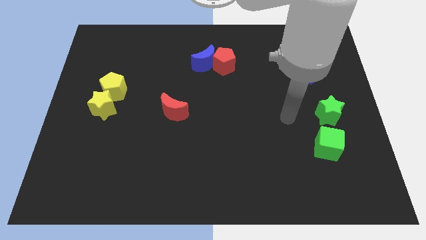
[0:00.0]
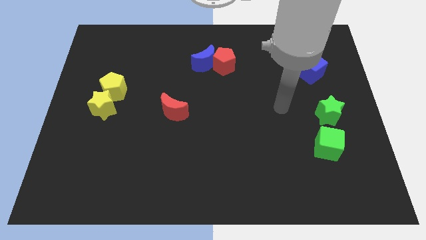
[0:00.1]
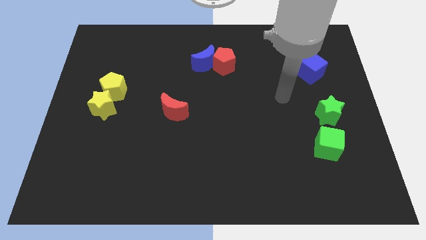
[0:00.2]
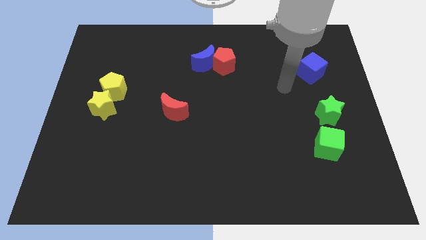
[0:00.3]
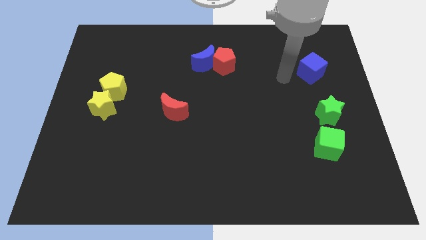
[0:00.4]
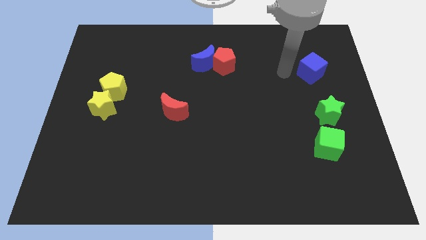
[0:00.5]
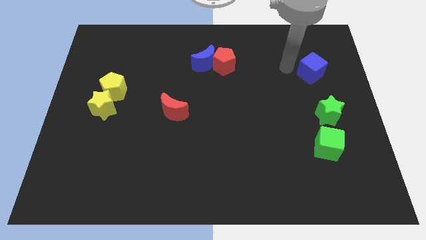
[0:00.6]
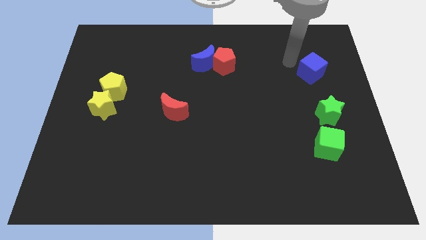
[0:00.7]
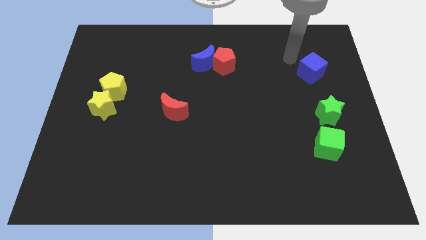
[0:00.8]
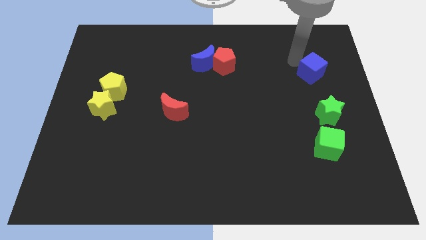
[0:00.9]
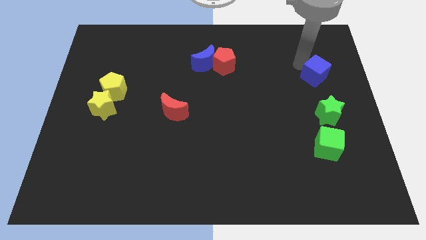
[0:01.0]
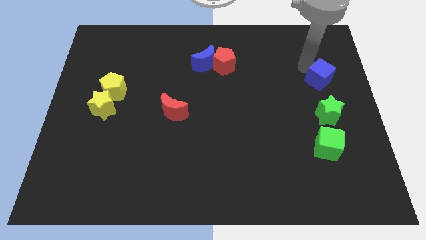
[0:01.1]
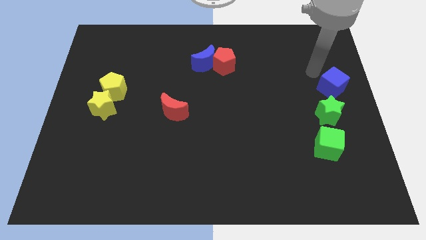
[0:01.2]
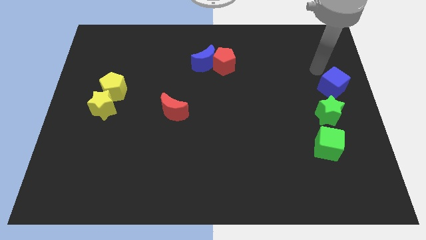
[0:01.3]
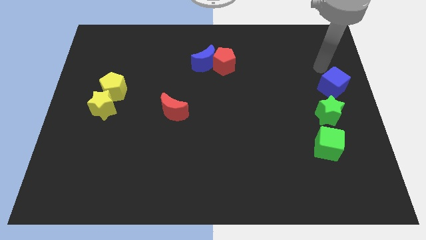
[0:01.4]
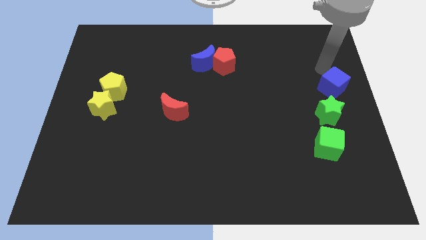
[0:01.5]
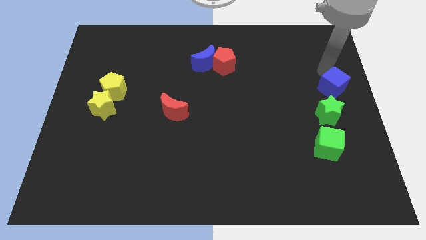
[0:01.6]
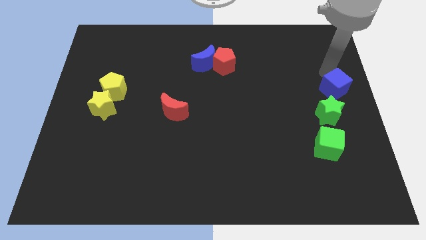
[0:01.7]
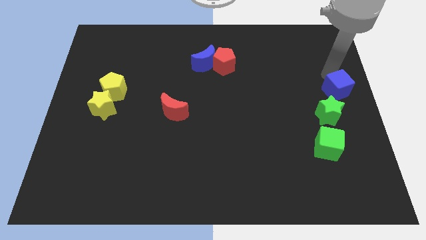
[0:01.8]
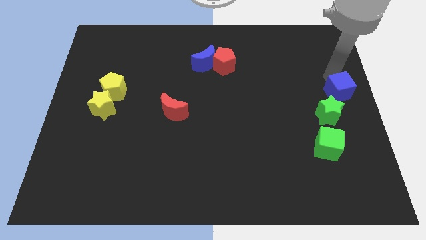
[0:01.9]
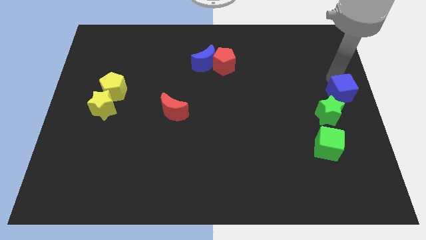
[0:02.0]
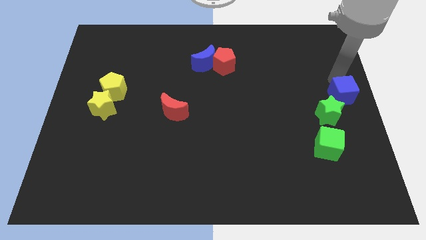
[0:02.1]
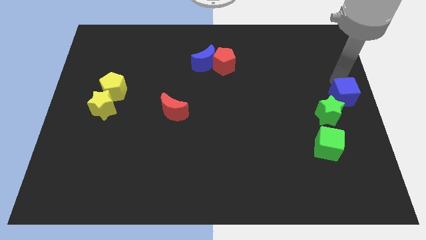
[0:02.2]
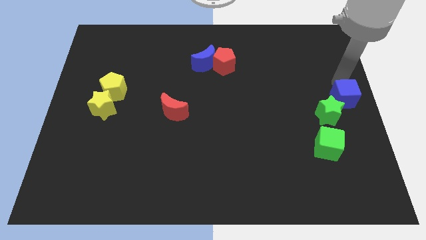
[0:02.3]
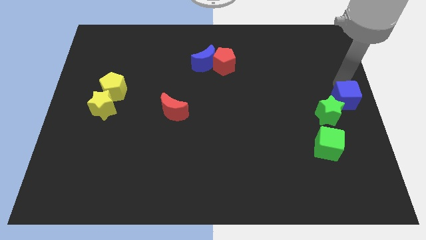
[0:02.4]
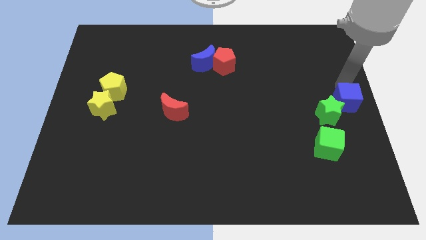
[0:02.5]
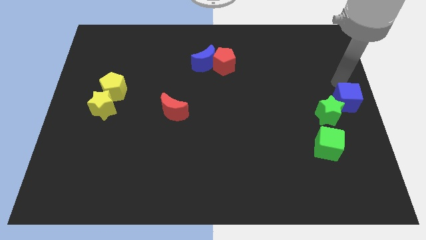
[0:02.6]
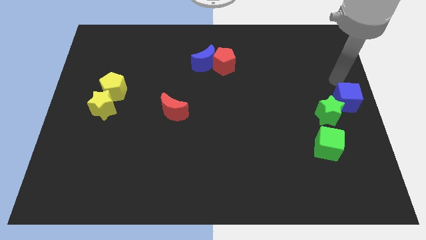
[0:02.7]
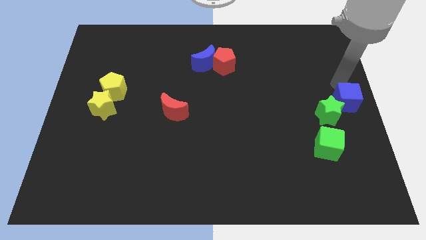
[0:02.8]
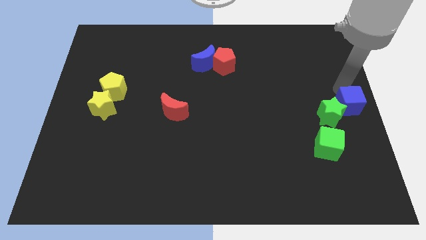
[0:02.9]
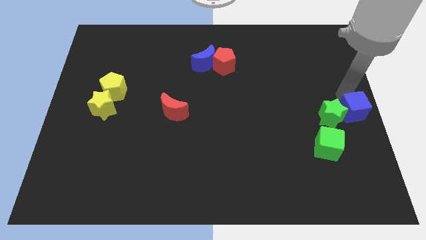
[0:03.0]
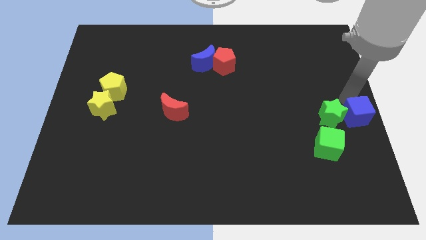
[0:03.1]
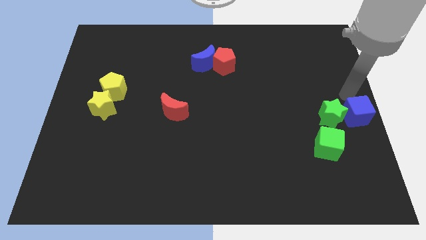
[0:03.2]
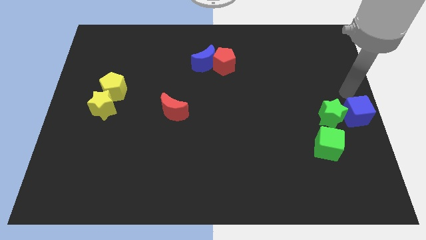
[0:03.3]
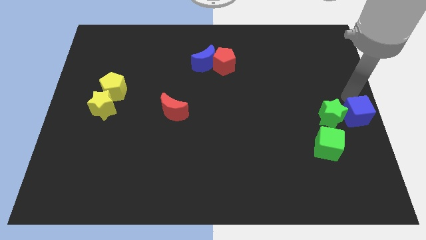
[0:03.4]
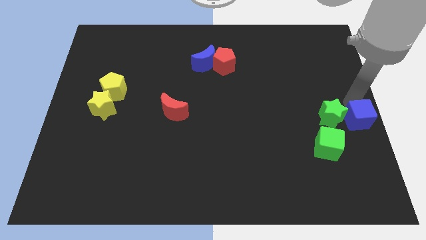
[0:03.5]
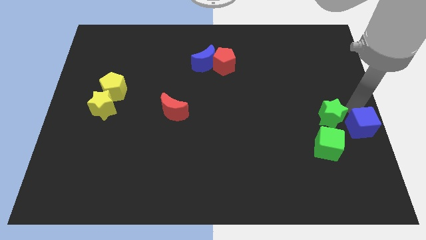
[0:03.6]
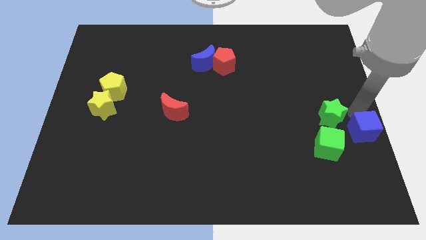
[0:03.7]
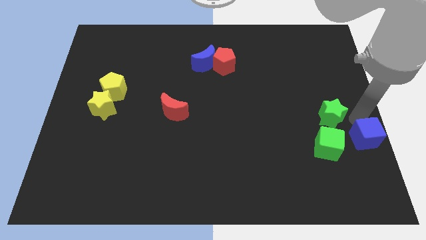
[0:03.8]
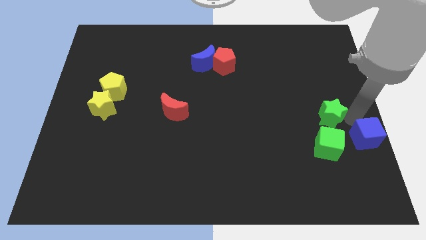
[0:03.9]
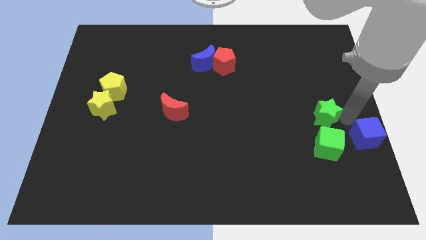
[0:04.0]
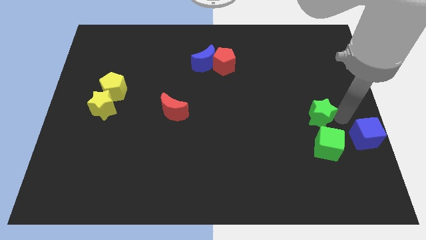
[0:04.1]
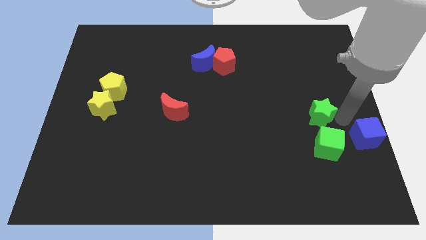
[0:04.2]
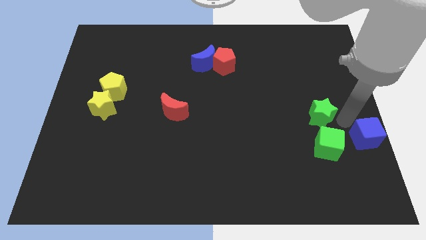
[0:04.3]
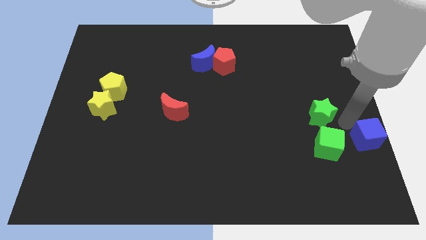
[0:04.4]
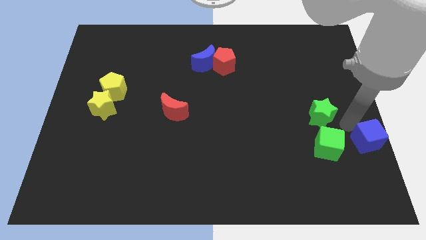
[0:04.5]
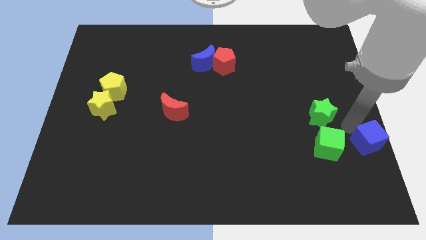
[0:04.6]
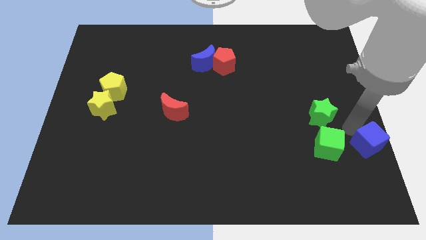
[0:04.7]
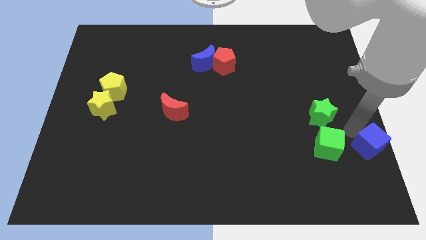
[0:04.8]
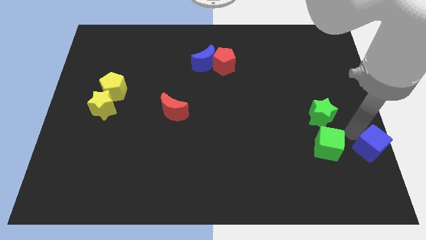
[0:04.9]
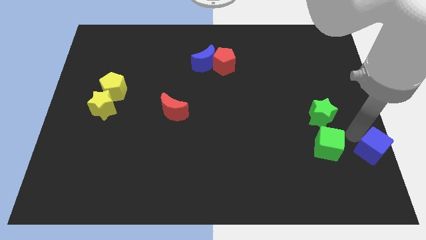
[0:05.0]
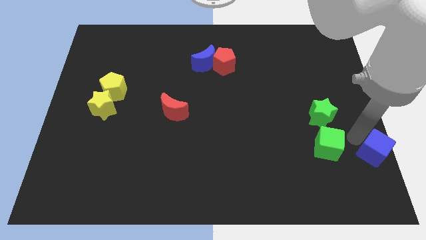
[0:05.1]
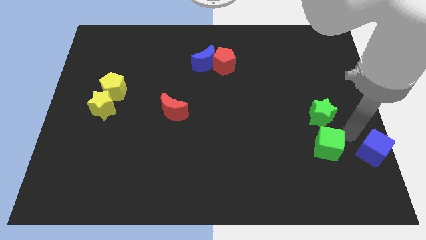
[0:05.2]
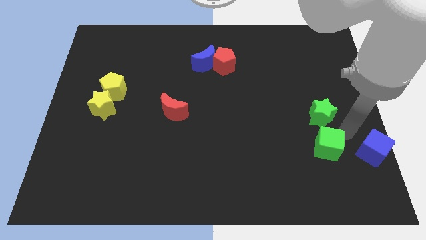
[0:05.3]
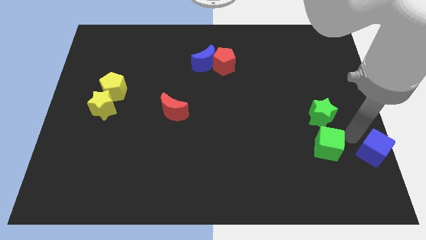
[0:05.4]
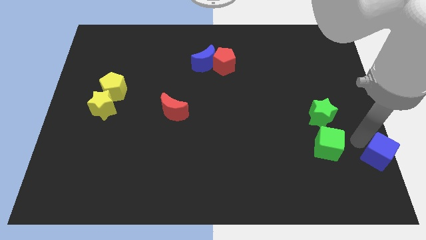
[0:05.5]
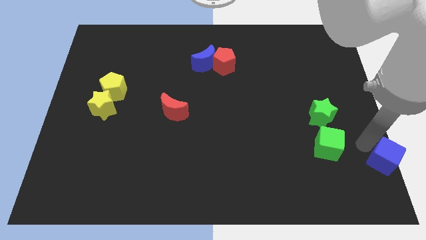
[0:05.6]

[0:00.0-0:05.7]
push the blue cube to the lower right corner

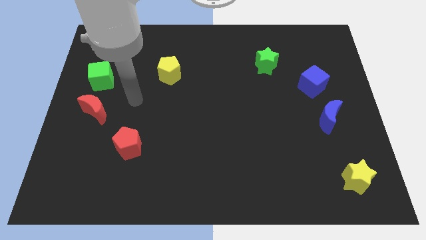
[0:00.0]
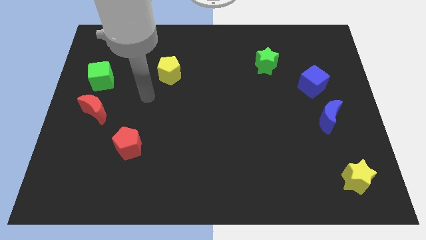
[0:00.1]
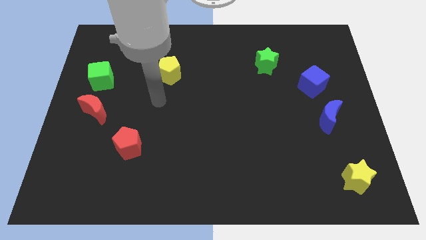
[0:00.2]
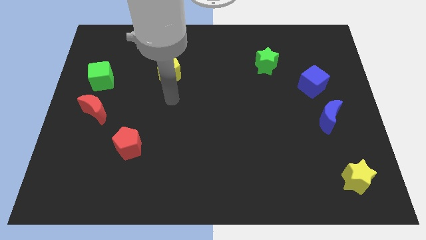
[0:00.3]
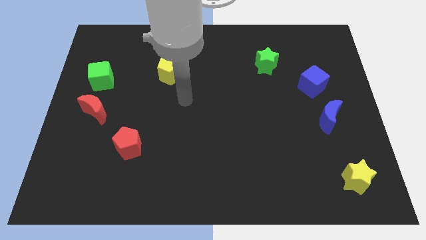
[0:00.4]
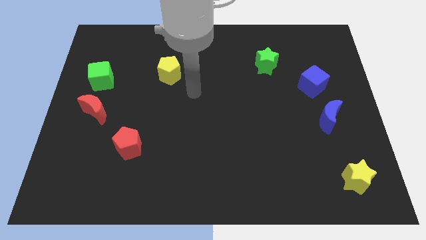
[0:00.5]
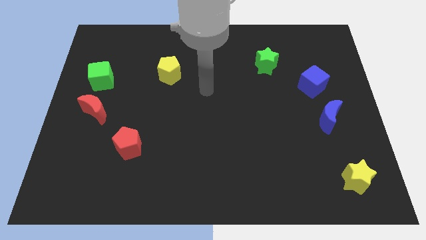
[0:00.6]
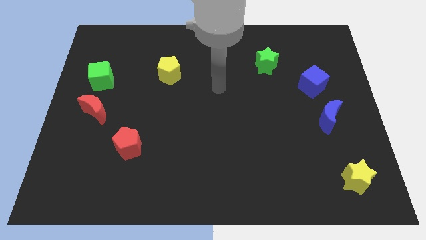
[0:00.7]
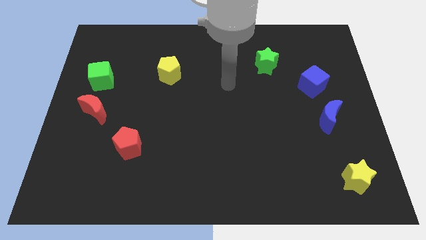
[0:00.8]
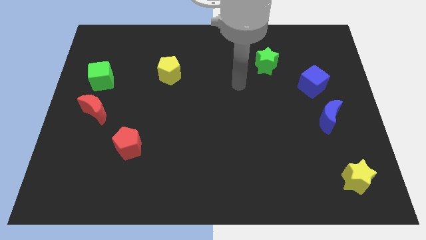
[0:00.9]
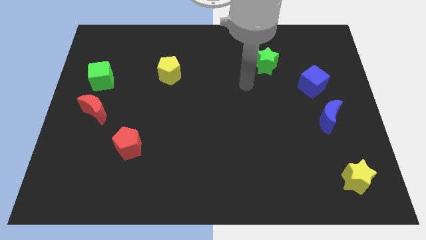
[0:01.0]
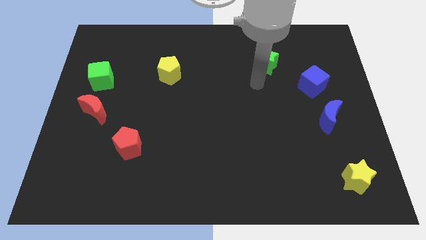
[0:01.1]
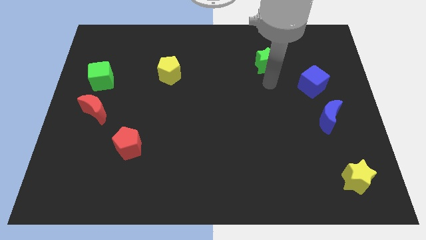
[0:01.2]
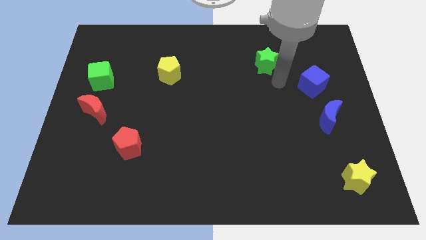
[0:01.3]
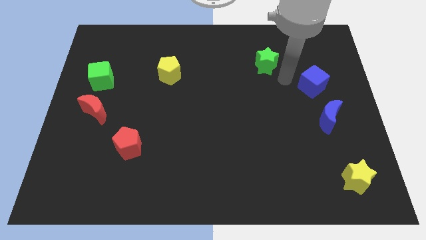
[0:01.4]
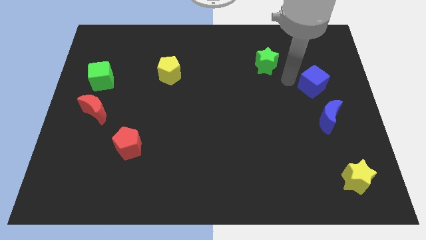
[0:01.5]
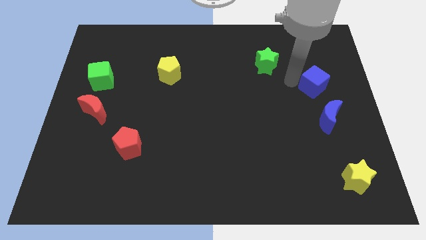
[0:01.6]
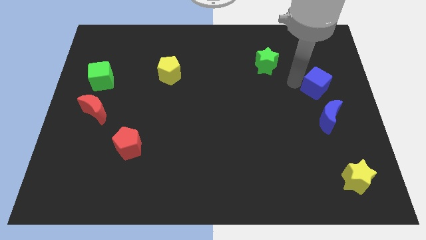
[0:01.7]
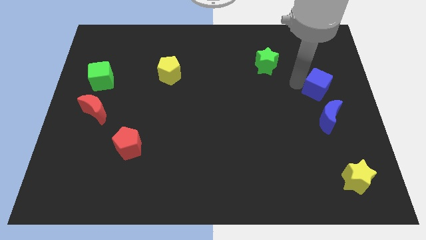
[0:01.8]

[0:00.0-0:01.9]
move the blue cube to the right side of the board
